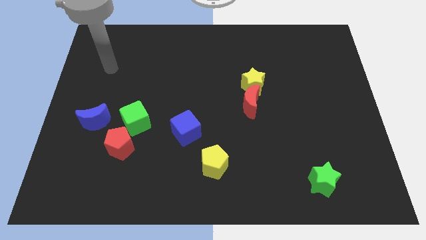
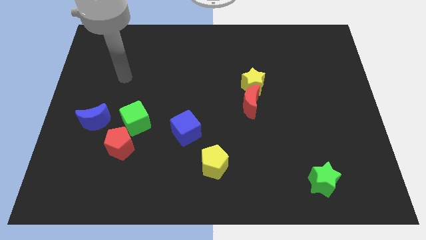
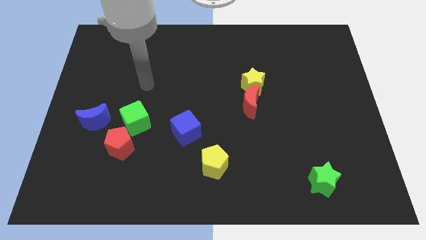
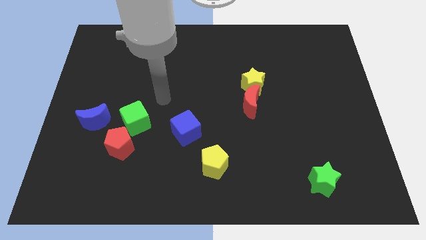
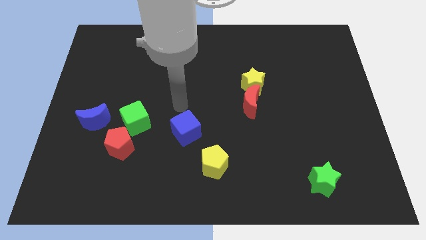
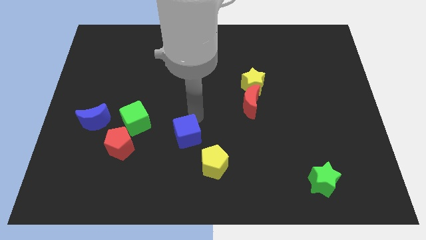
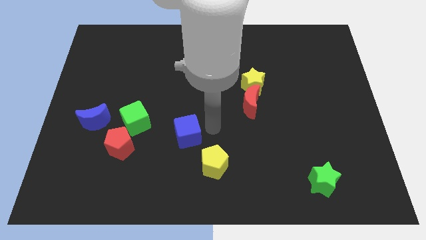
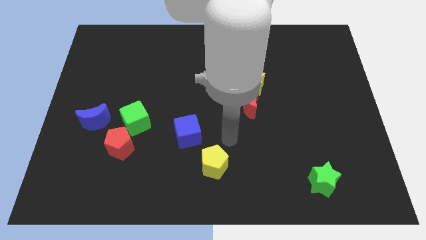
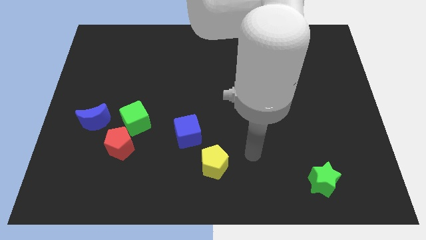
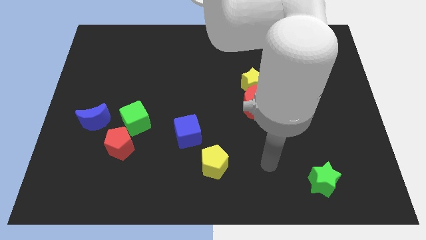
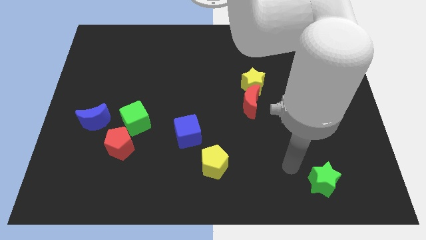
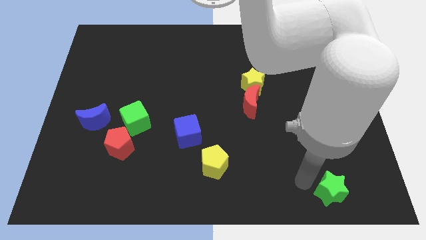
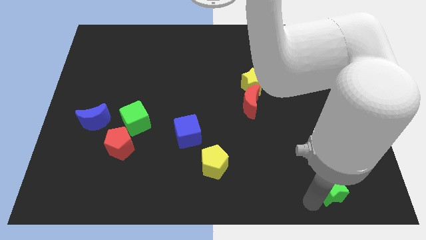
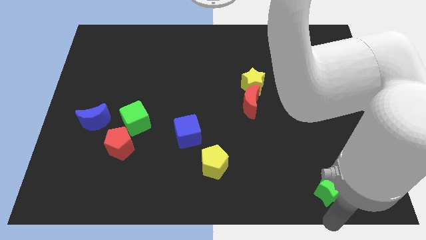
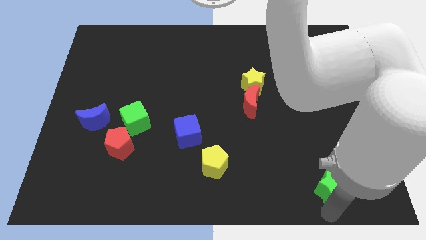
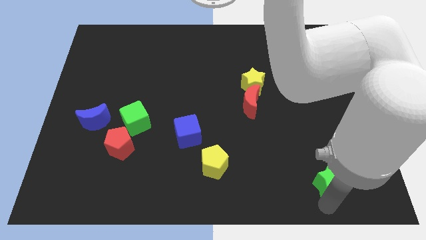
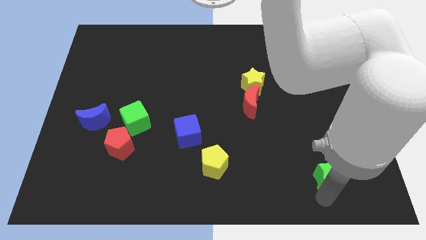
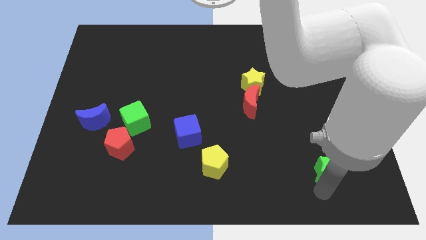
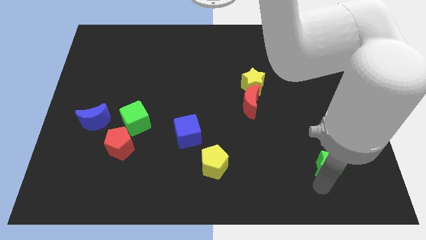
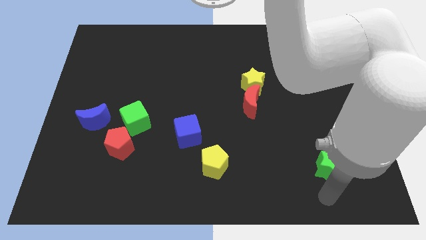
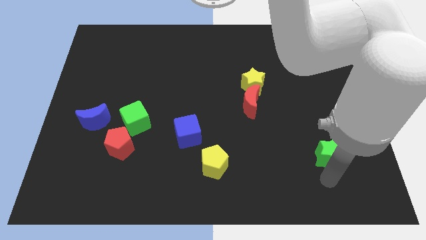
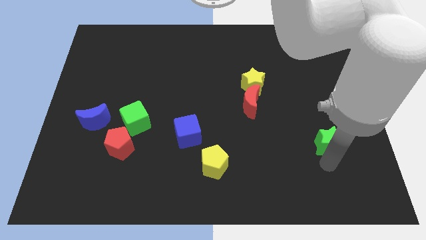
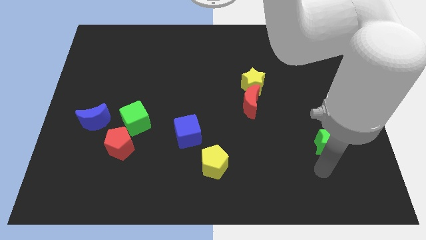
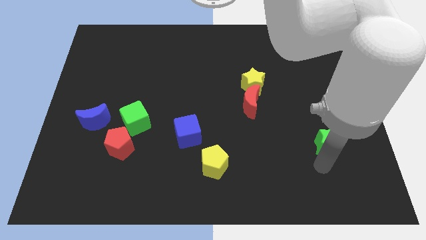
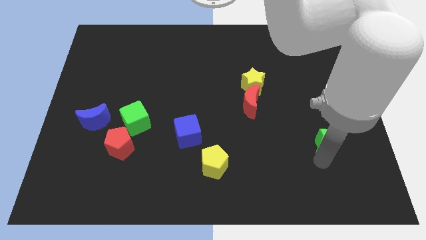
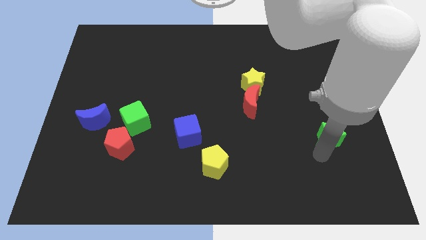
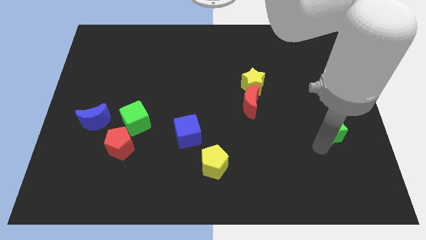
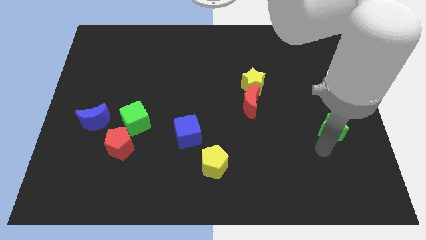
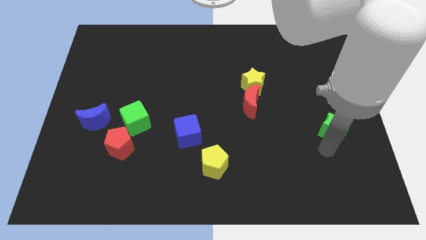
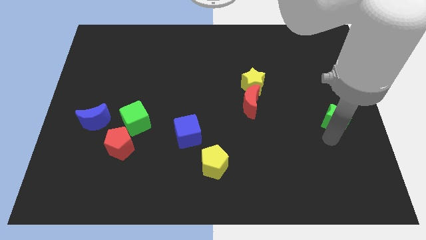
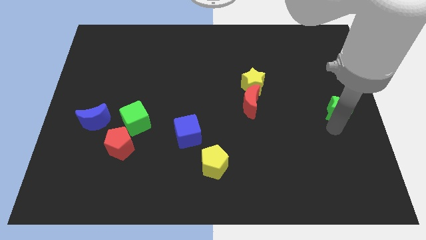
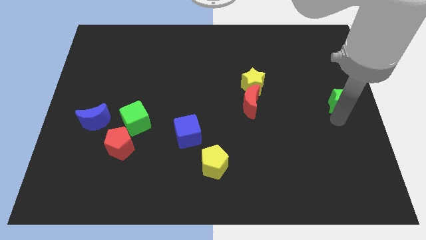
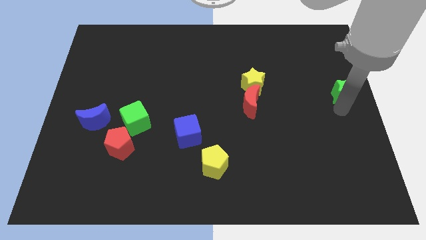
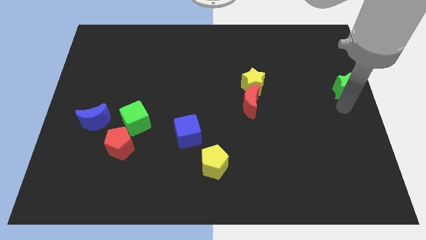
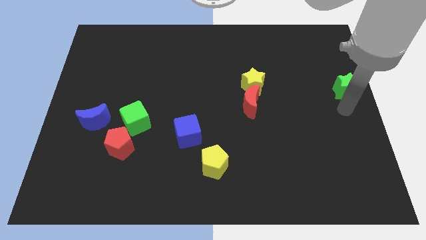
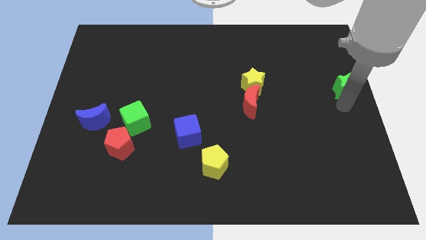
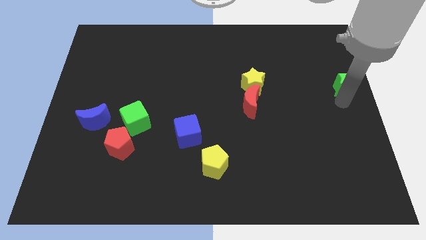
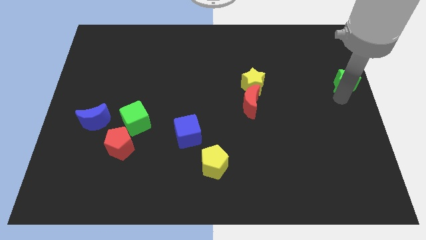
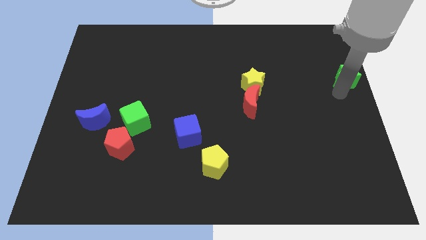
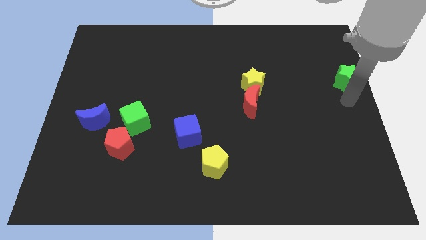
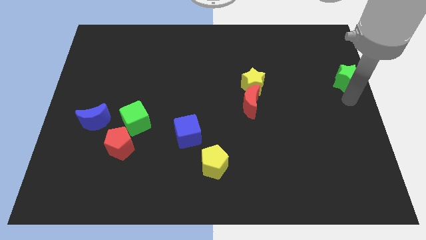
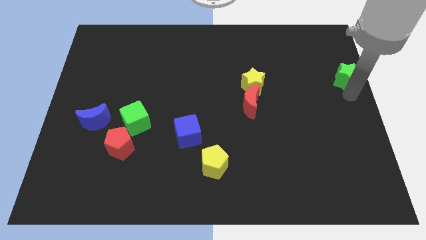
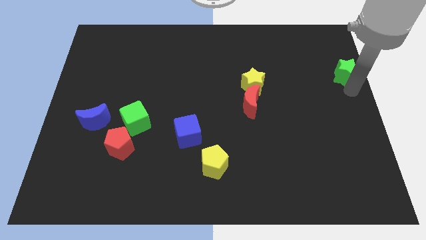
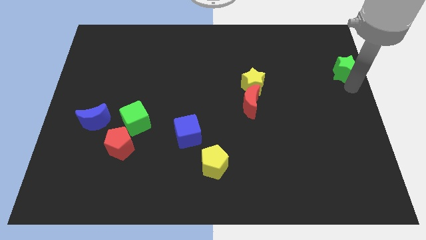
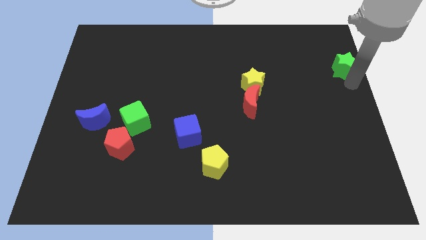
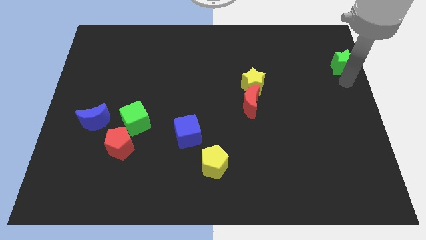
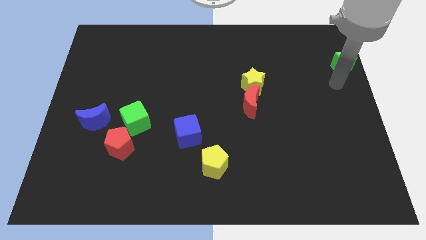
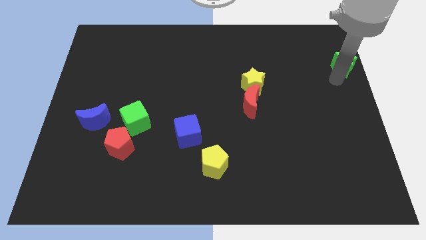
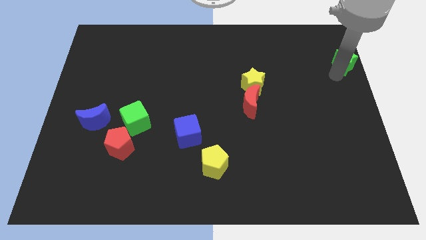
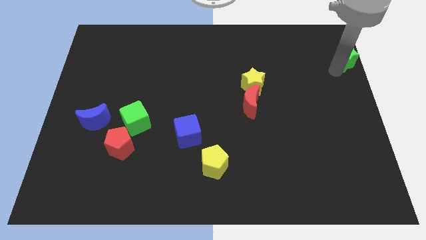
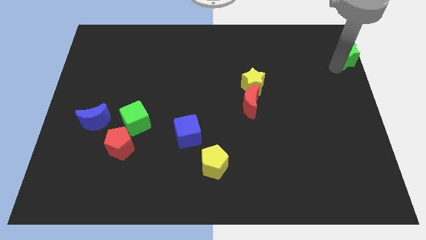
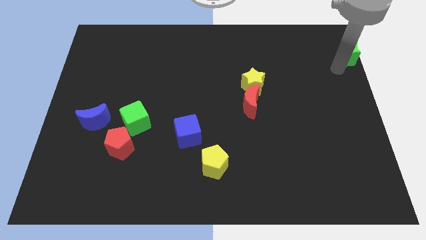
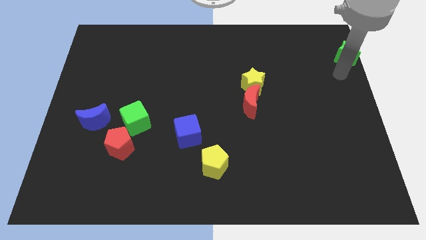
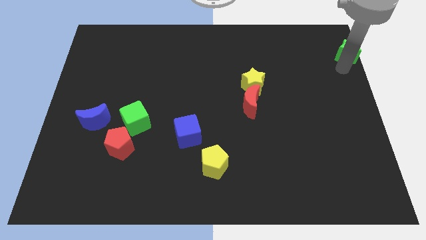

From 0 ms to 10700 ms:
slide the green star to the top right of the board

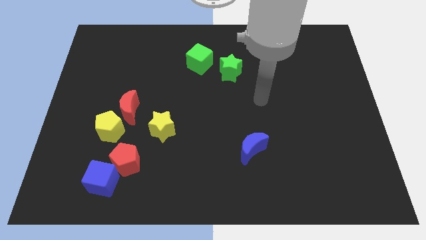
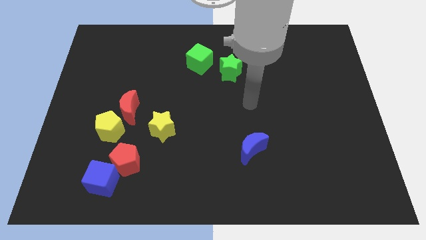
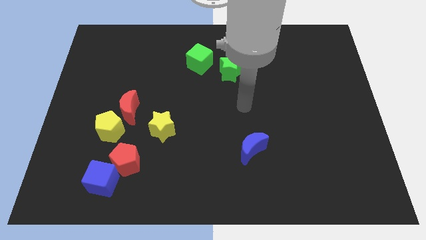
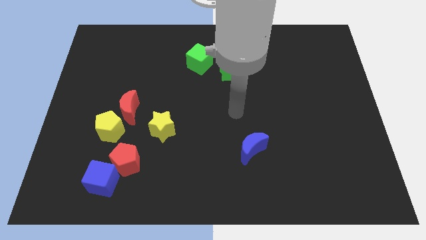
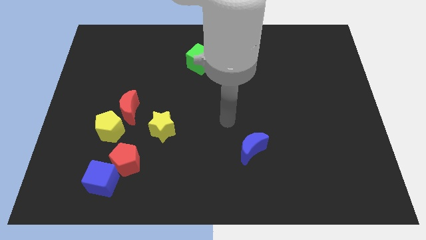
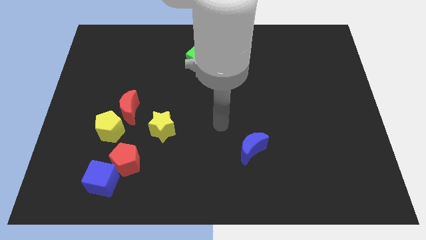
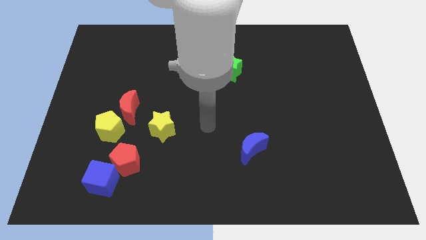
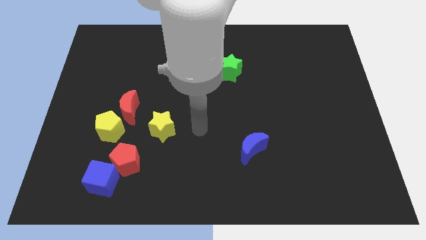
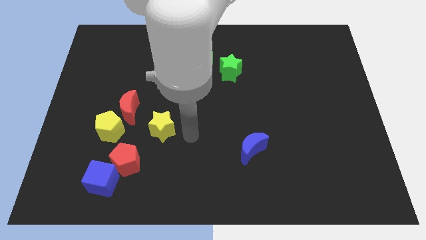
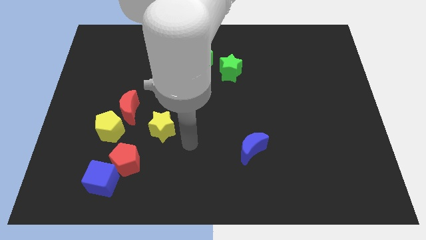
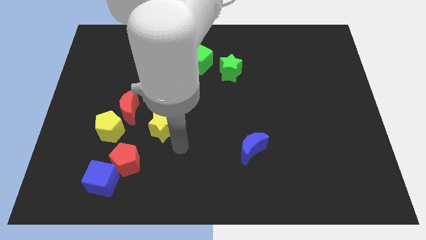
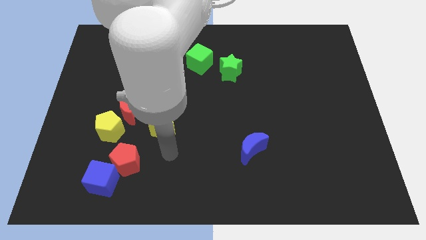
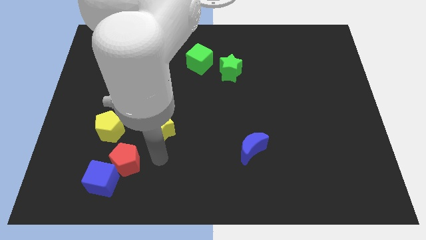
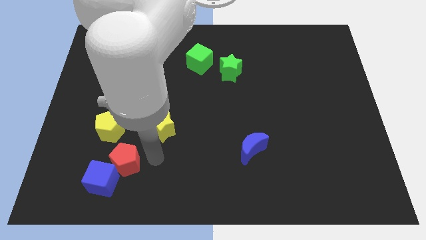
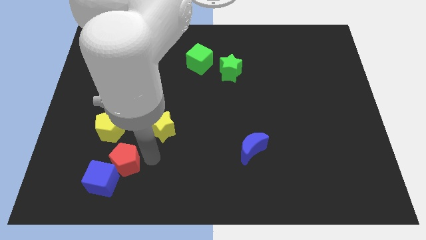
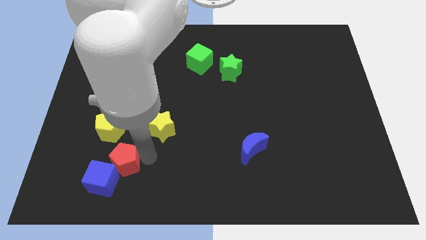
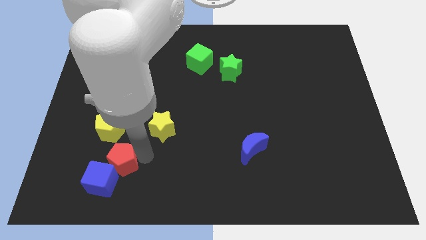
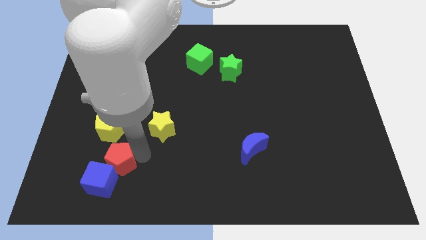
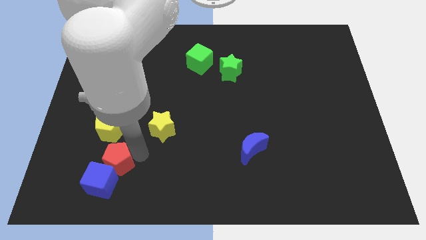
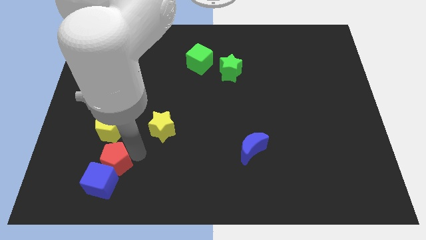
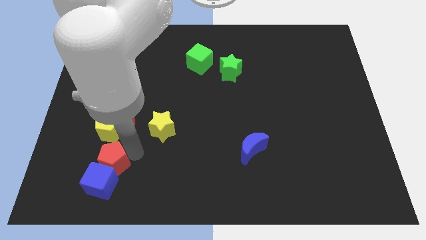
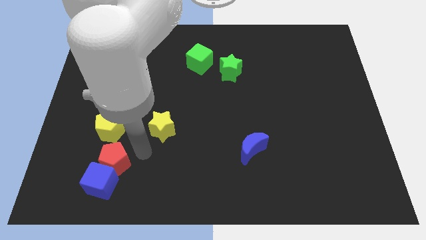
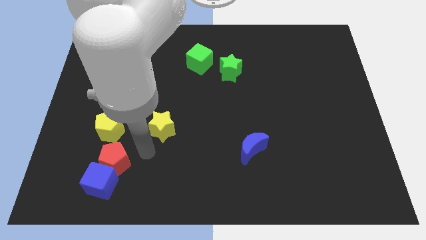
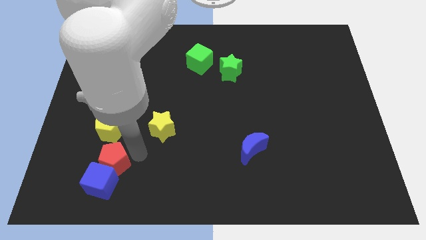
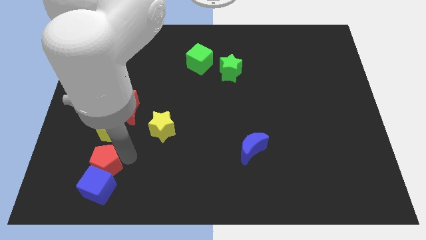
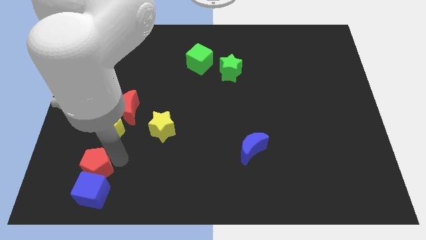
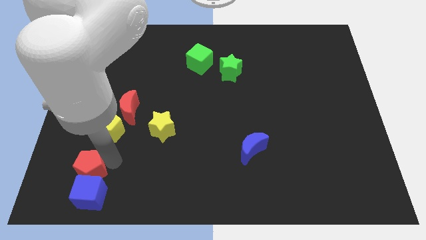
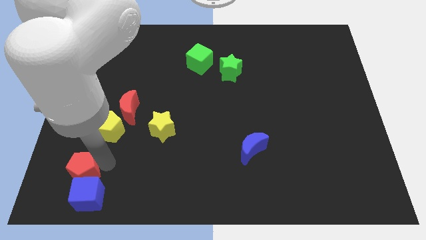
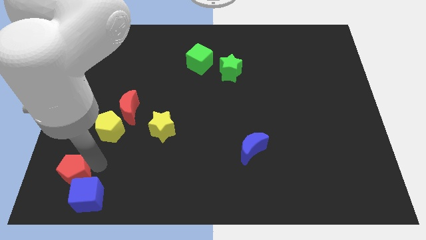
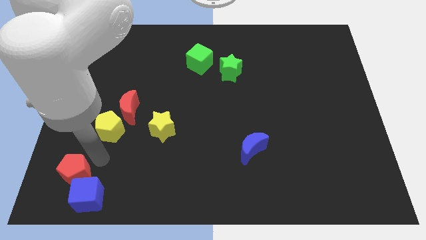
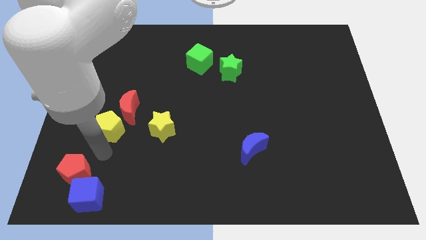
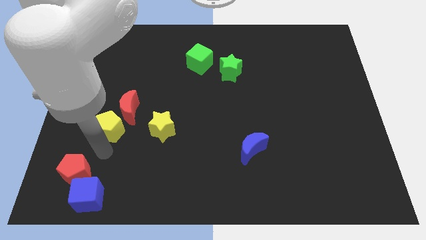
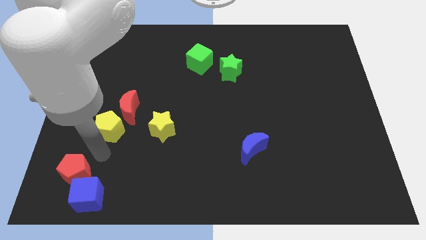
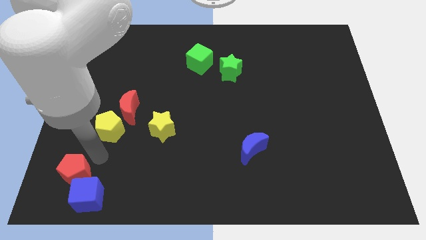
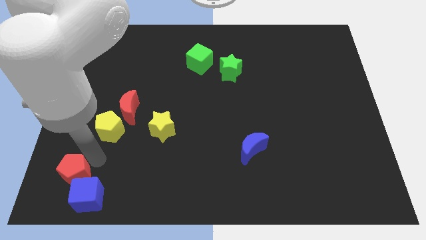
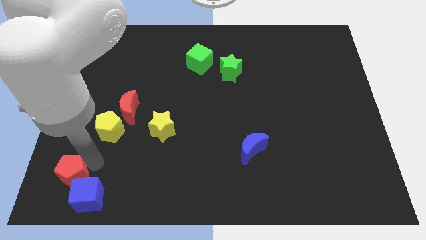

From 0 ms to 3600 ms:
push the red pentagon to the bottom left of the board
